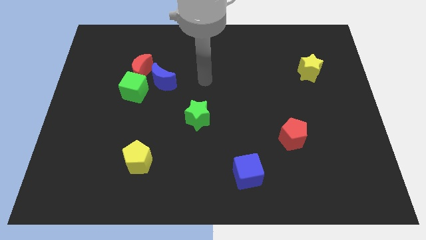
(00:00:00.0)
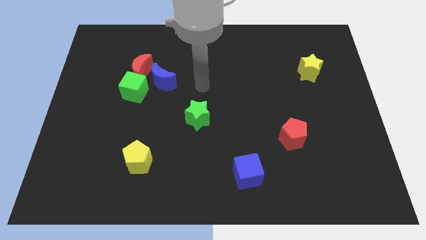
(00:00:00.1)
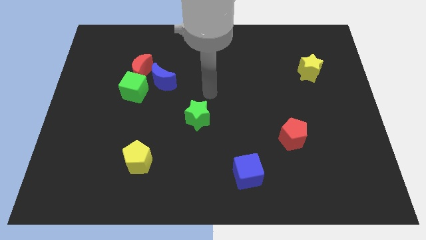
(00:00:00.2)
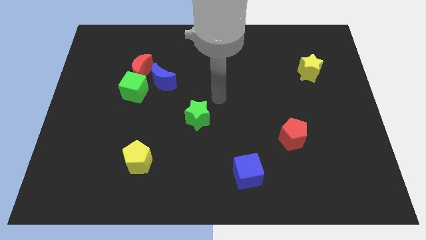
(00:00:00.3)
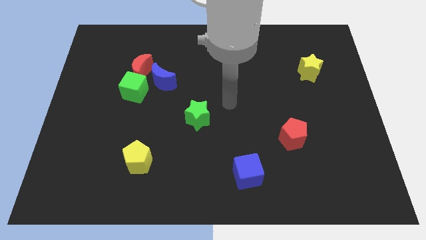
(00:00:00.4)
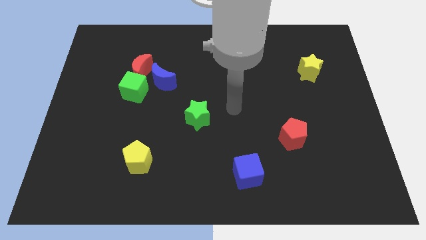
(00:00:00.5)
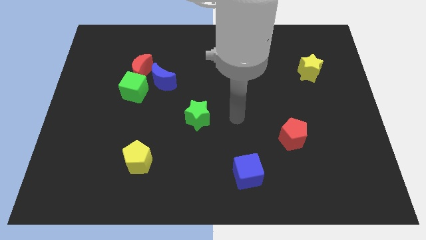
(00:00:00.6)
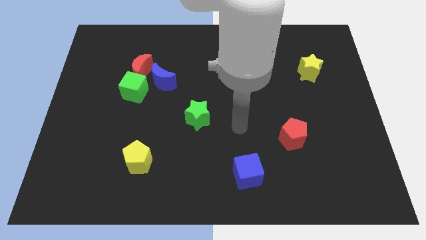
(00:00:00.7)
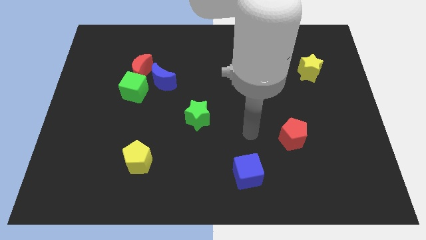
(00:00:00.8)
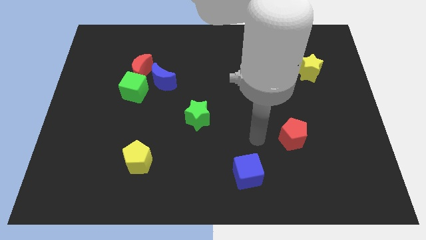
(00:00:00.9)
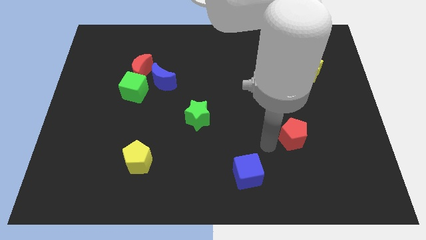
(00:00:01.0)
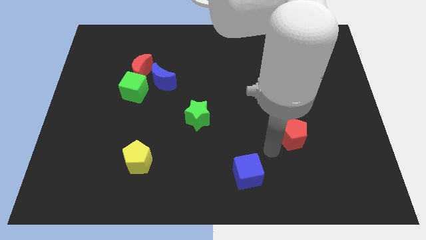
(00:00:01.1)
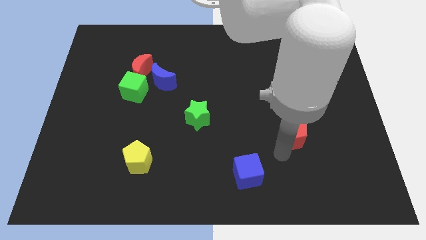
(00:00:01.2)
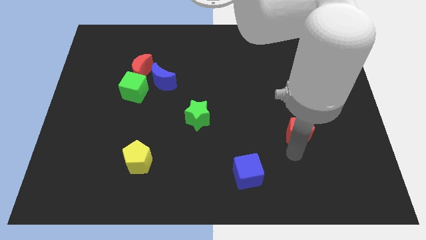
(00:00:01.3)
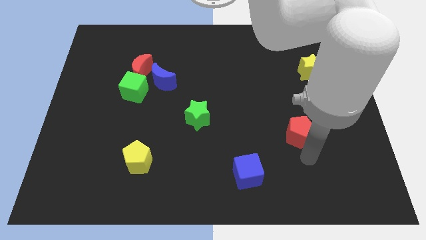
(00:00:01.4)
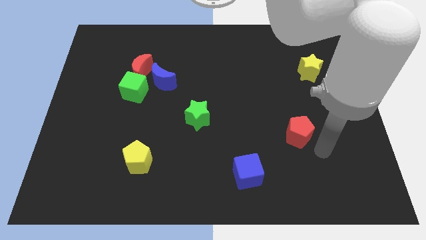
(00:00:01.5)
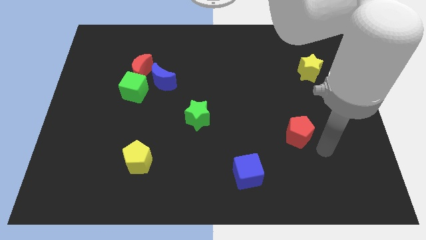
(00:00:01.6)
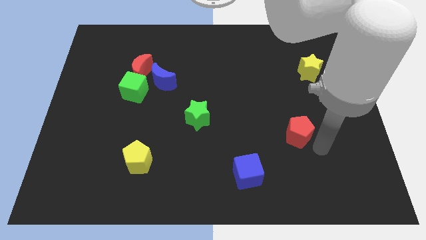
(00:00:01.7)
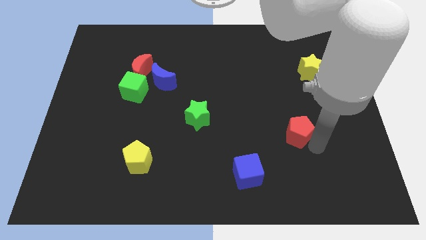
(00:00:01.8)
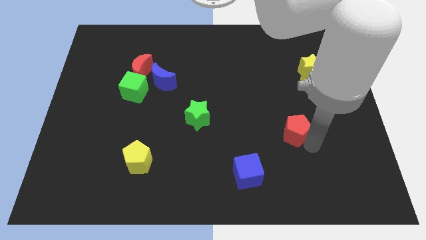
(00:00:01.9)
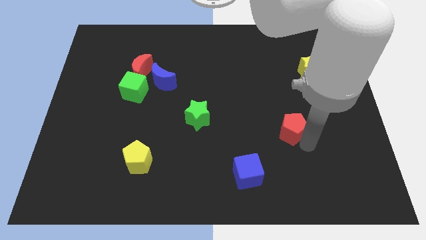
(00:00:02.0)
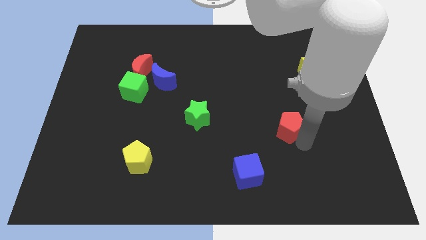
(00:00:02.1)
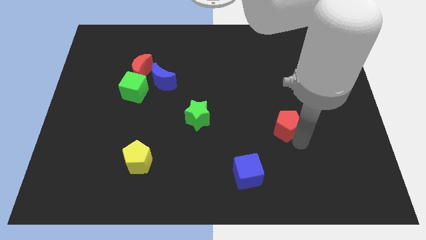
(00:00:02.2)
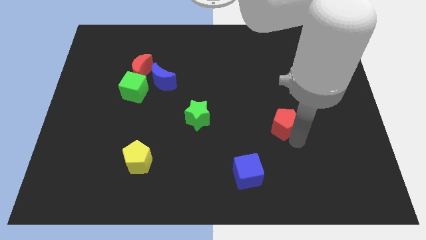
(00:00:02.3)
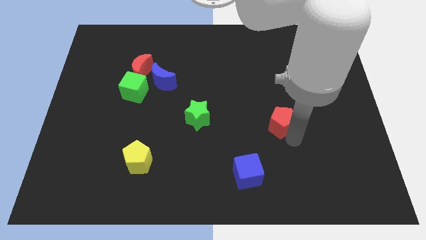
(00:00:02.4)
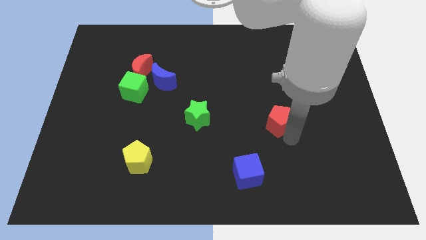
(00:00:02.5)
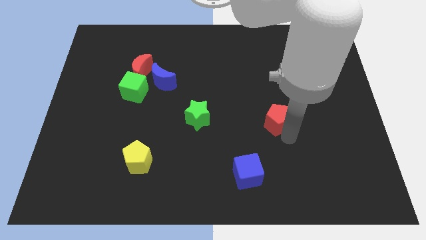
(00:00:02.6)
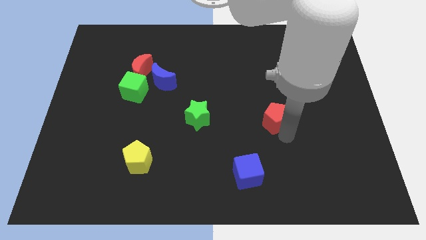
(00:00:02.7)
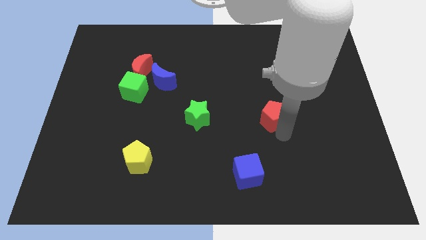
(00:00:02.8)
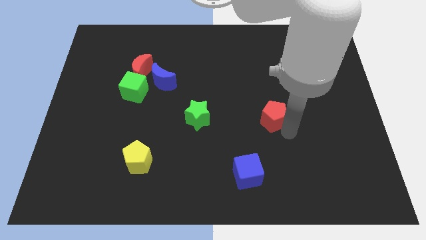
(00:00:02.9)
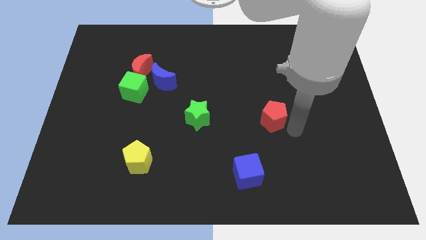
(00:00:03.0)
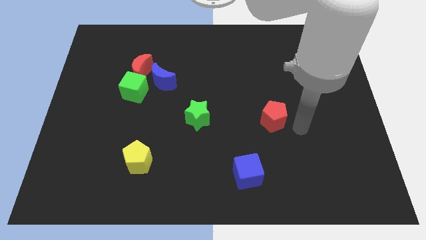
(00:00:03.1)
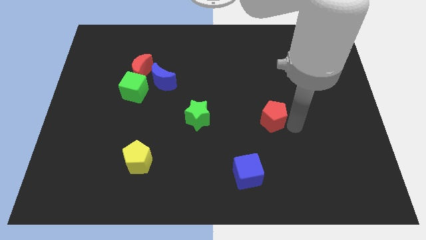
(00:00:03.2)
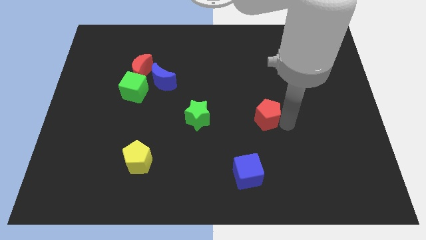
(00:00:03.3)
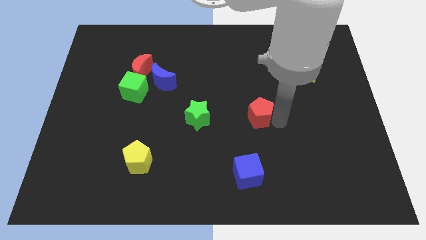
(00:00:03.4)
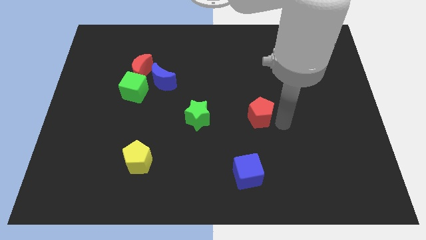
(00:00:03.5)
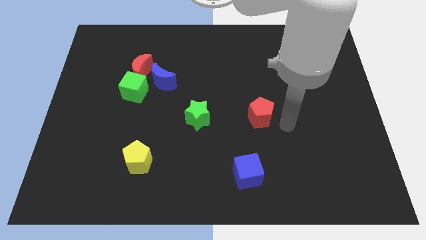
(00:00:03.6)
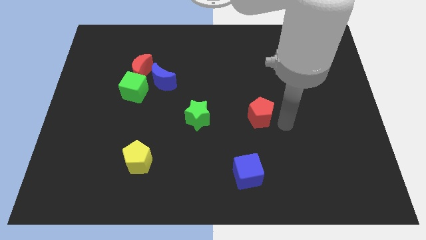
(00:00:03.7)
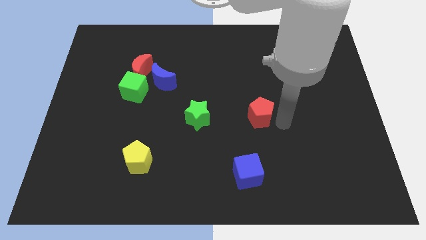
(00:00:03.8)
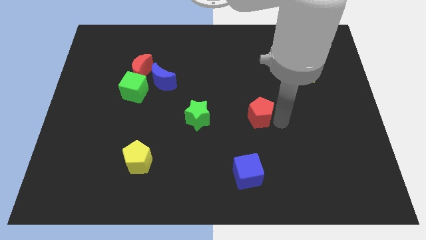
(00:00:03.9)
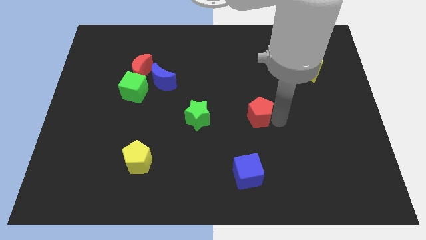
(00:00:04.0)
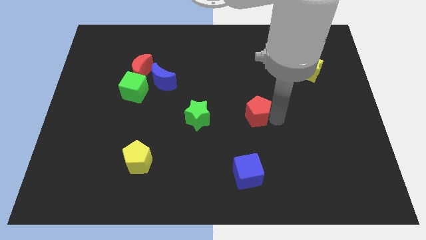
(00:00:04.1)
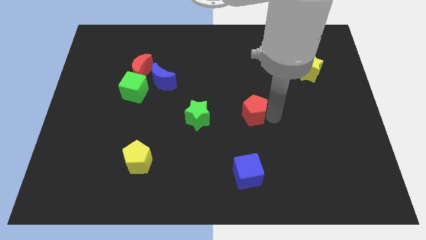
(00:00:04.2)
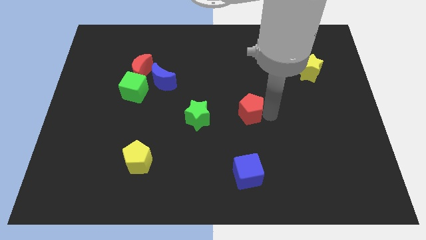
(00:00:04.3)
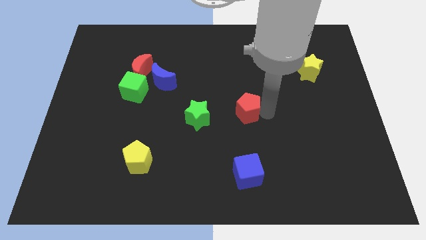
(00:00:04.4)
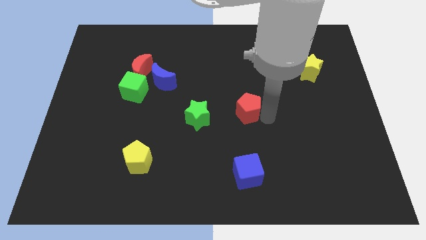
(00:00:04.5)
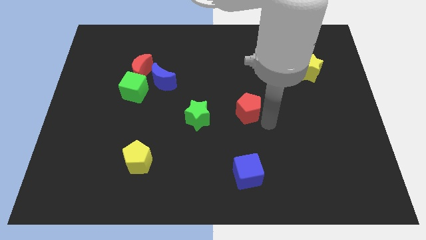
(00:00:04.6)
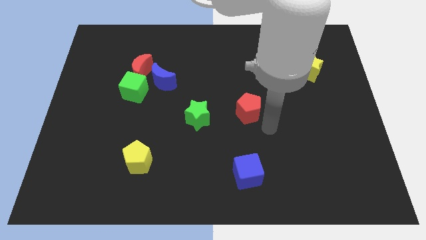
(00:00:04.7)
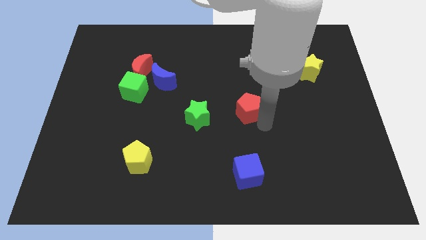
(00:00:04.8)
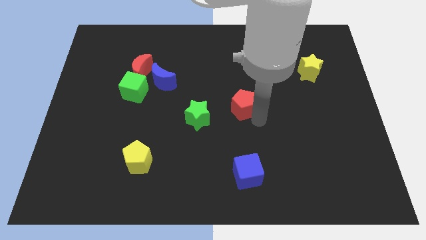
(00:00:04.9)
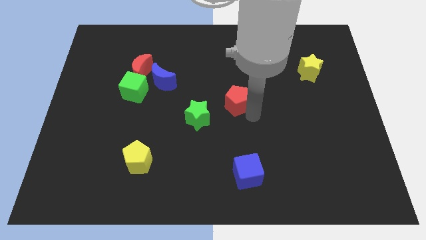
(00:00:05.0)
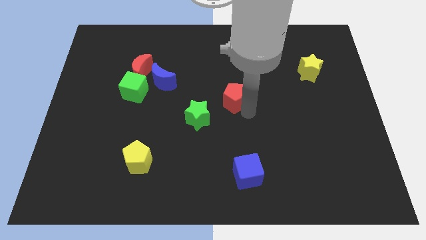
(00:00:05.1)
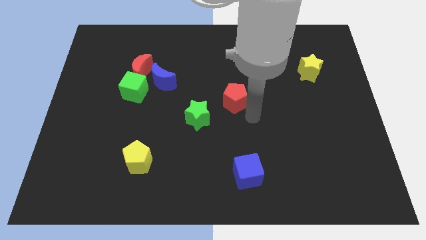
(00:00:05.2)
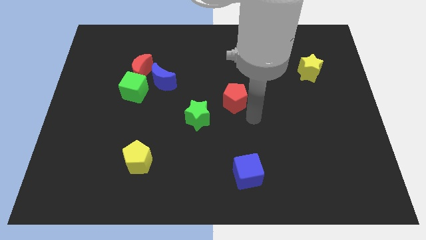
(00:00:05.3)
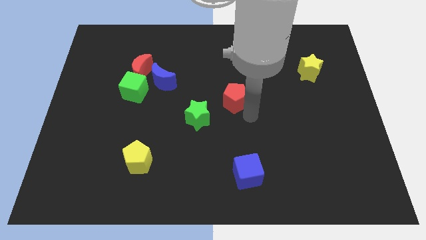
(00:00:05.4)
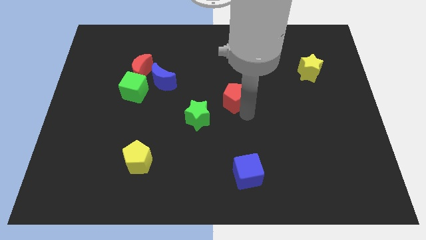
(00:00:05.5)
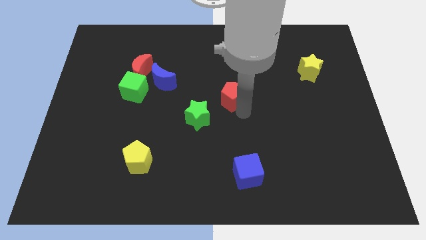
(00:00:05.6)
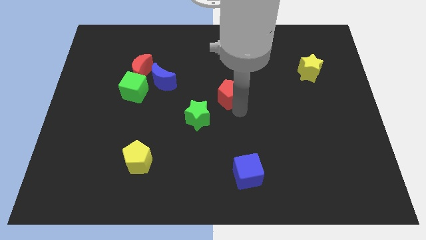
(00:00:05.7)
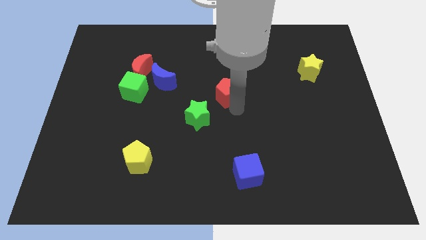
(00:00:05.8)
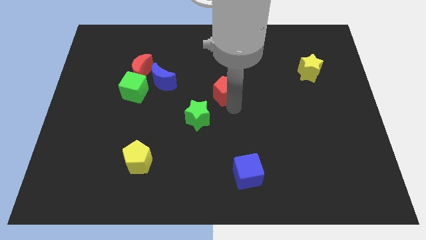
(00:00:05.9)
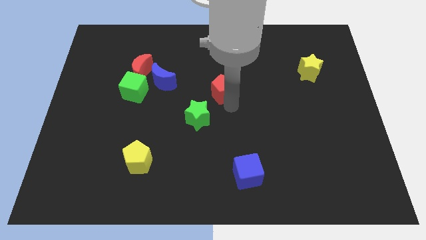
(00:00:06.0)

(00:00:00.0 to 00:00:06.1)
move the red pentagon diagonally upwards and left

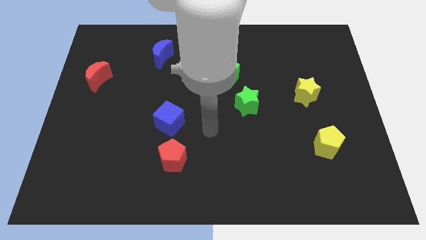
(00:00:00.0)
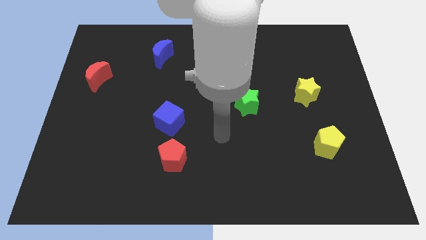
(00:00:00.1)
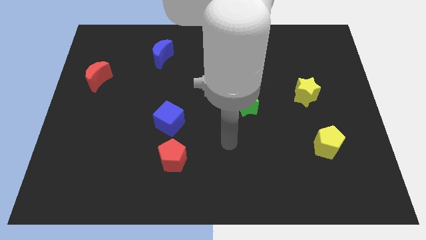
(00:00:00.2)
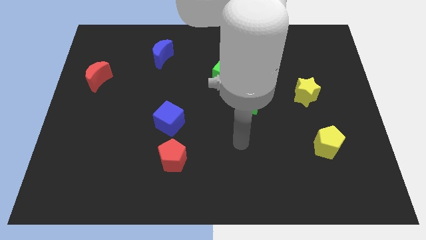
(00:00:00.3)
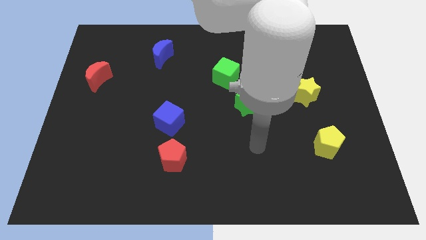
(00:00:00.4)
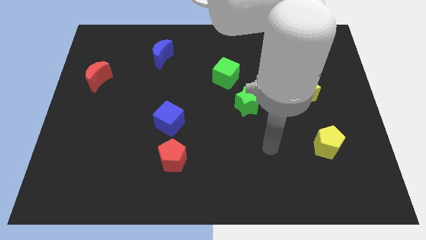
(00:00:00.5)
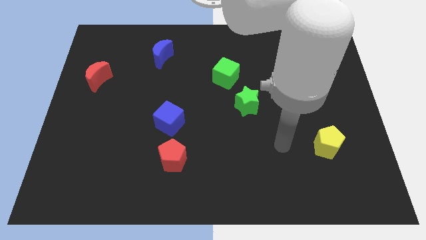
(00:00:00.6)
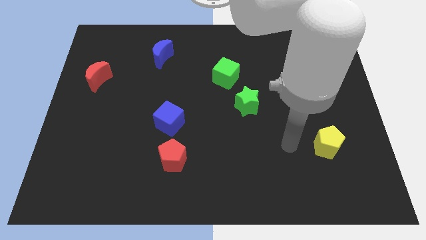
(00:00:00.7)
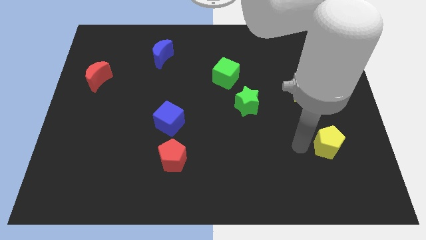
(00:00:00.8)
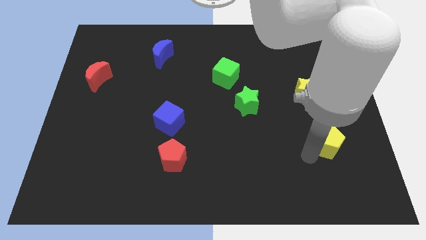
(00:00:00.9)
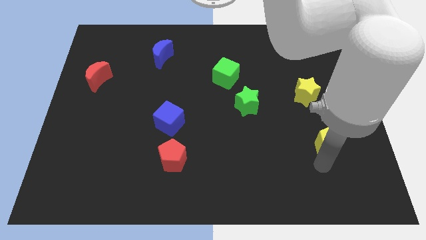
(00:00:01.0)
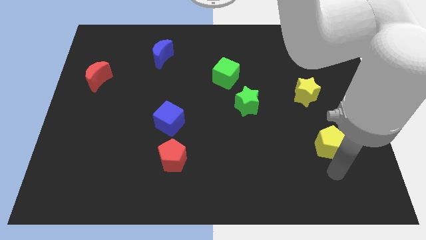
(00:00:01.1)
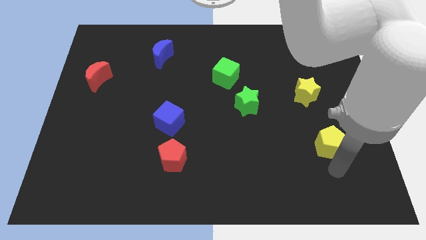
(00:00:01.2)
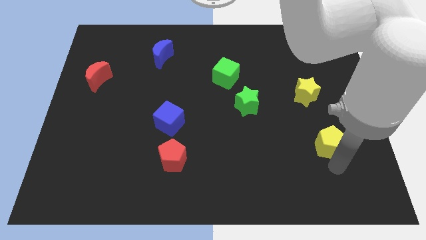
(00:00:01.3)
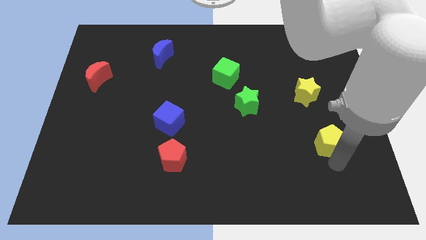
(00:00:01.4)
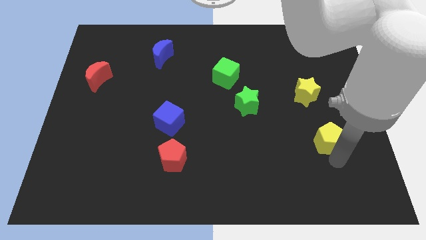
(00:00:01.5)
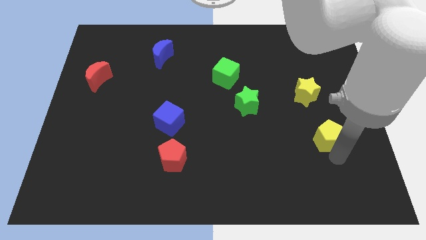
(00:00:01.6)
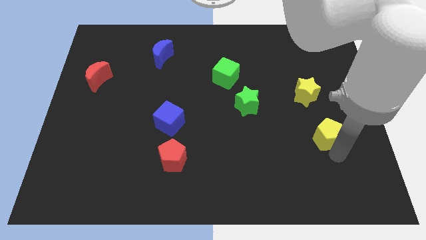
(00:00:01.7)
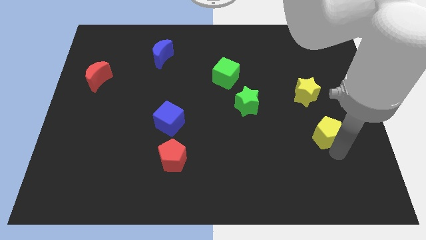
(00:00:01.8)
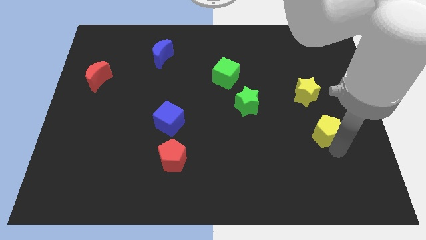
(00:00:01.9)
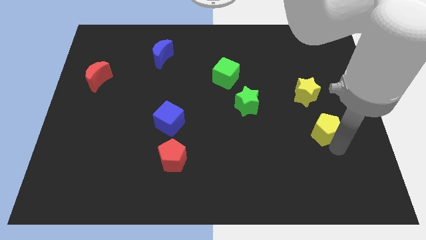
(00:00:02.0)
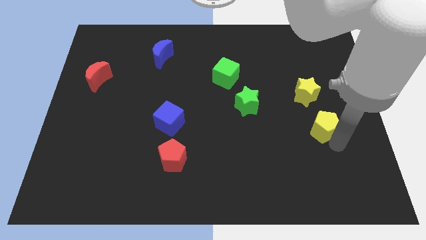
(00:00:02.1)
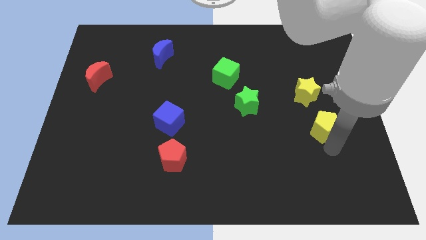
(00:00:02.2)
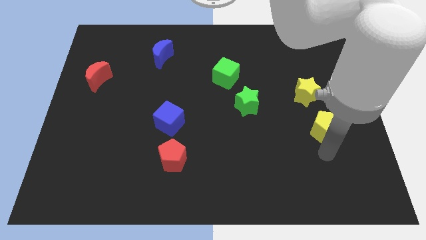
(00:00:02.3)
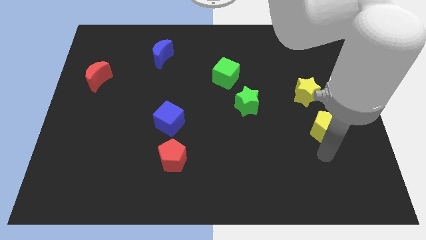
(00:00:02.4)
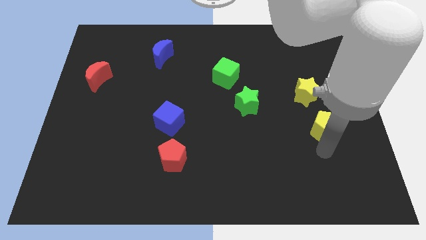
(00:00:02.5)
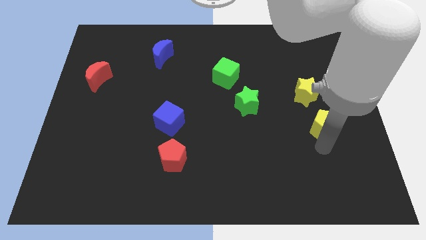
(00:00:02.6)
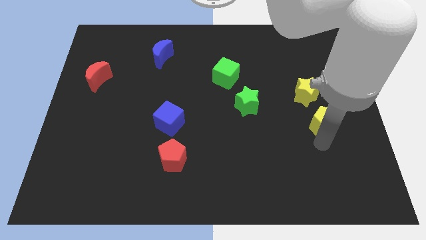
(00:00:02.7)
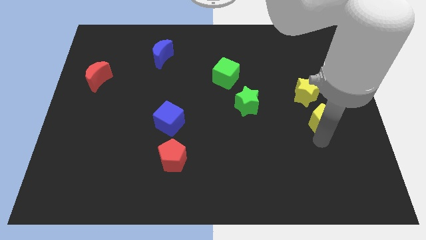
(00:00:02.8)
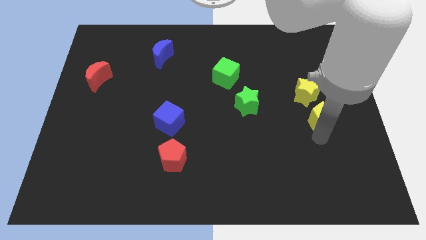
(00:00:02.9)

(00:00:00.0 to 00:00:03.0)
slightly push the yellow pentagon up
